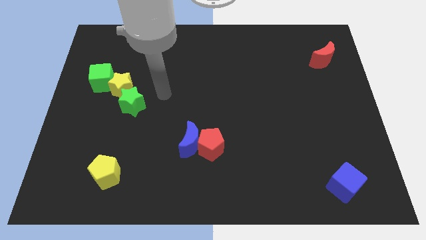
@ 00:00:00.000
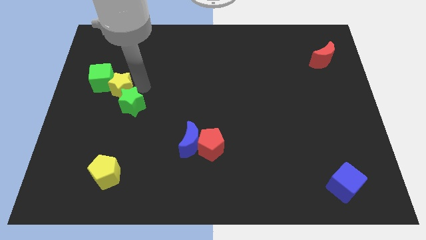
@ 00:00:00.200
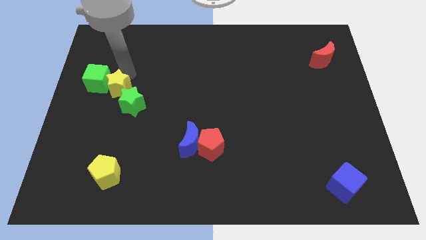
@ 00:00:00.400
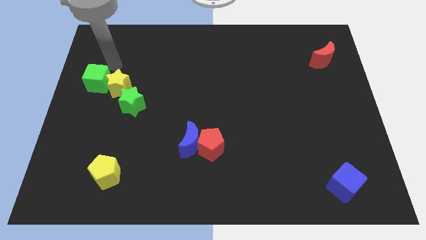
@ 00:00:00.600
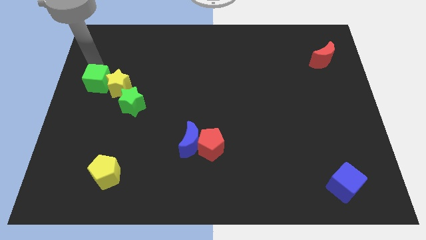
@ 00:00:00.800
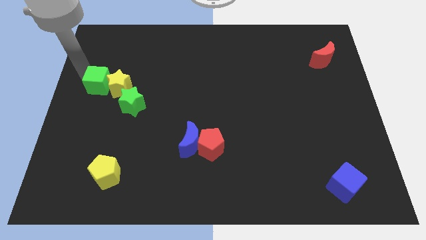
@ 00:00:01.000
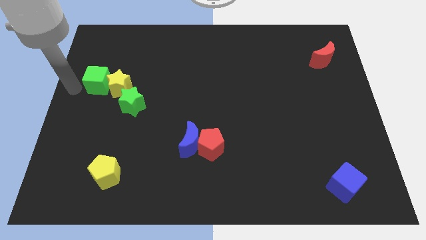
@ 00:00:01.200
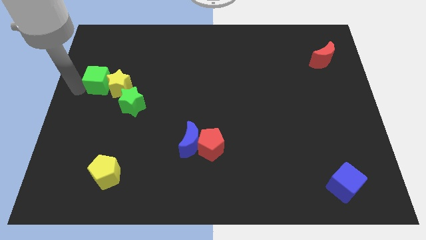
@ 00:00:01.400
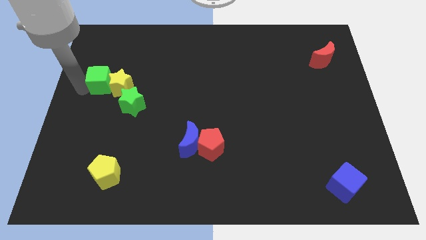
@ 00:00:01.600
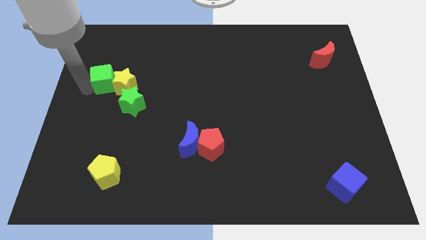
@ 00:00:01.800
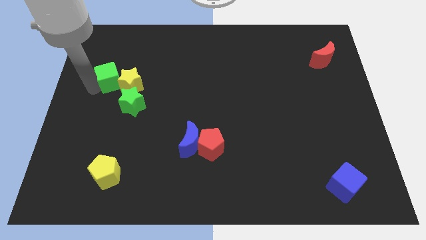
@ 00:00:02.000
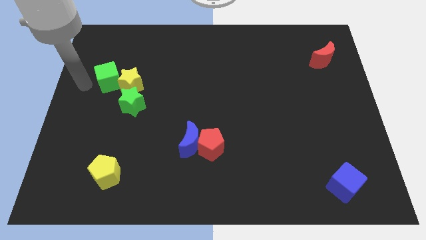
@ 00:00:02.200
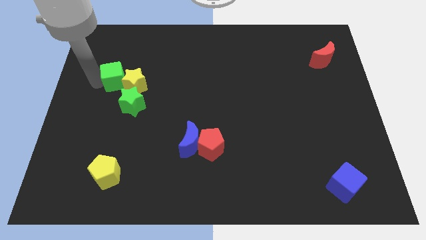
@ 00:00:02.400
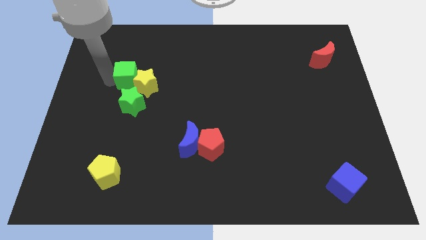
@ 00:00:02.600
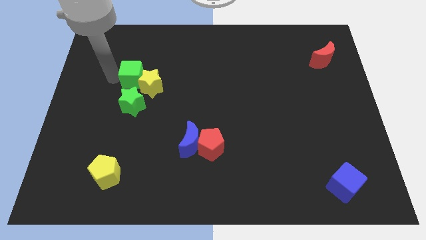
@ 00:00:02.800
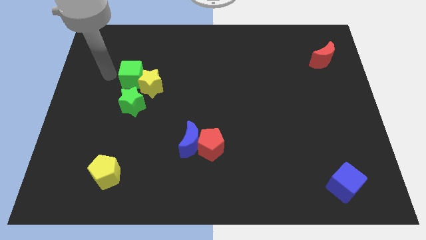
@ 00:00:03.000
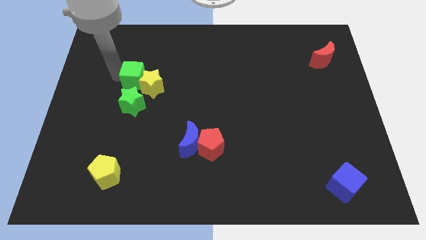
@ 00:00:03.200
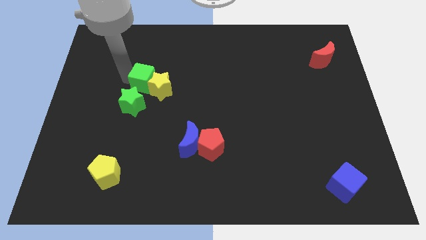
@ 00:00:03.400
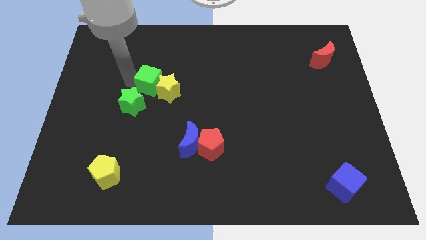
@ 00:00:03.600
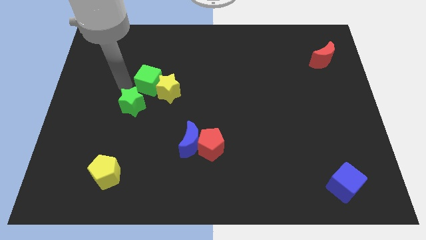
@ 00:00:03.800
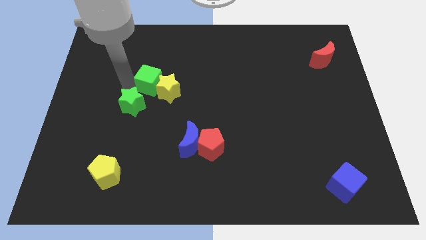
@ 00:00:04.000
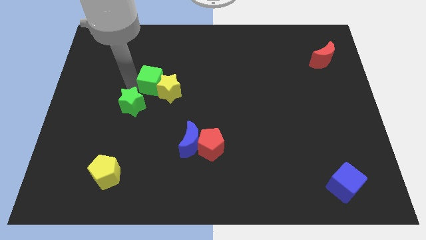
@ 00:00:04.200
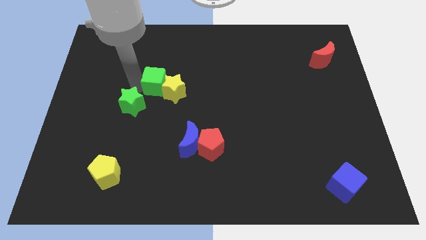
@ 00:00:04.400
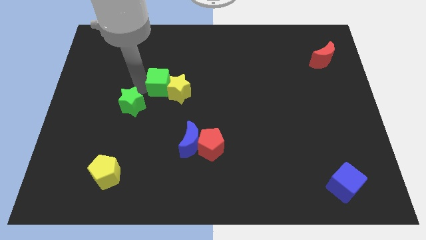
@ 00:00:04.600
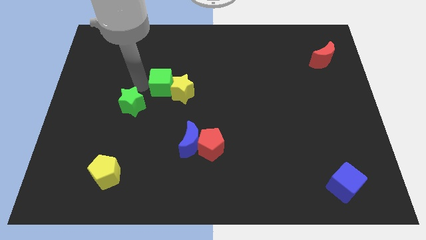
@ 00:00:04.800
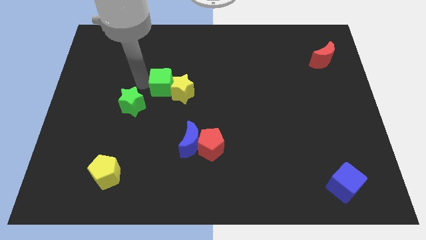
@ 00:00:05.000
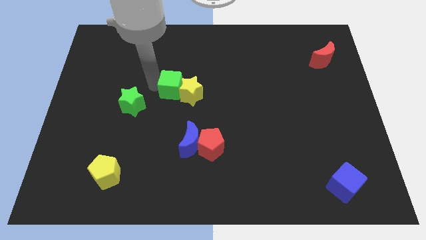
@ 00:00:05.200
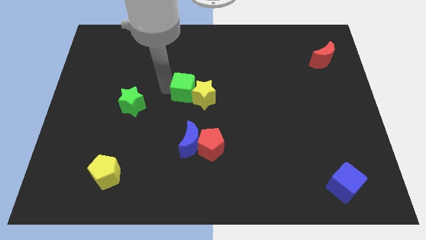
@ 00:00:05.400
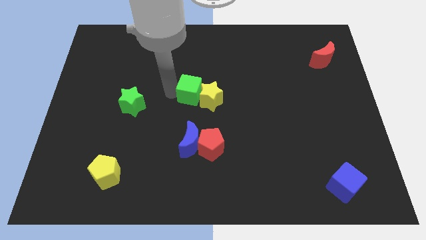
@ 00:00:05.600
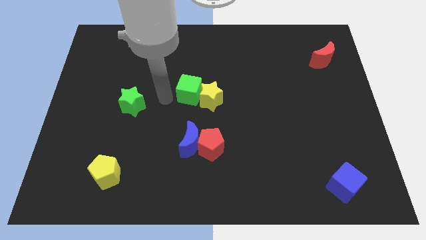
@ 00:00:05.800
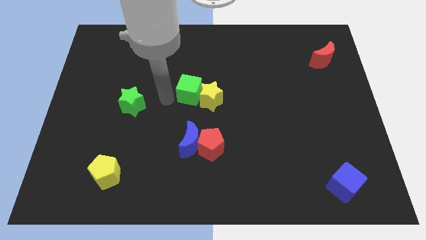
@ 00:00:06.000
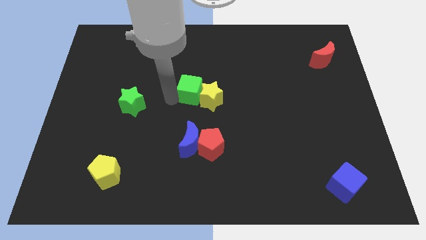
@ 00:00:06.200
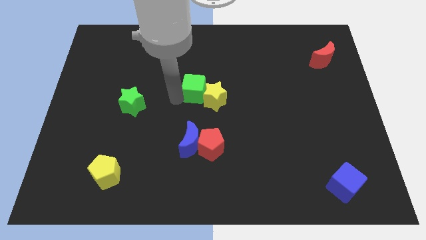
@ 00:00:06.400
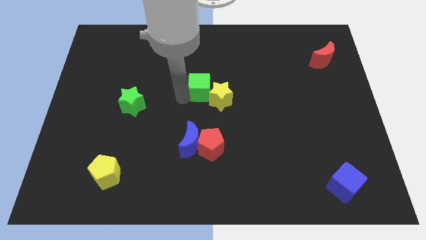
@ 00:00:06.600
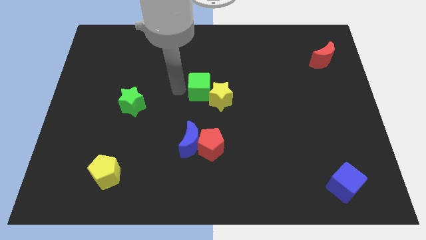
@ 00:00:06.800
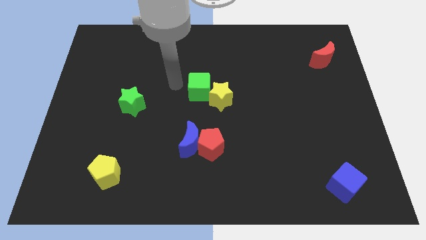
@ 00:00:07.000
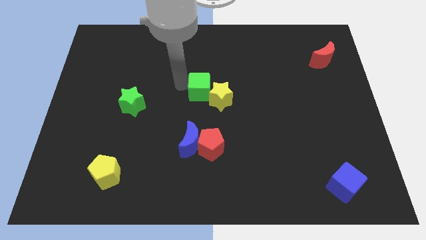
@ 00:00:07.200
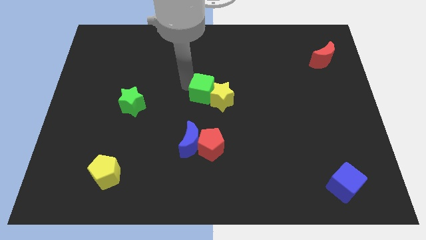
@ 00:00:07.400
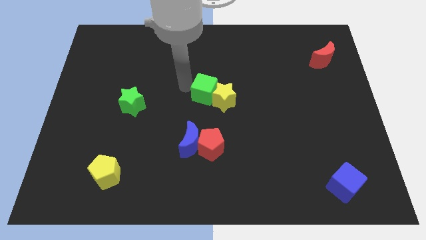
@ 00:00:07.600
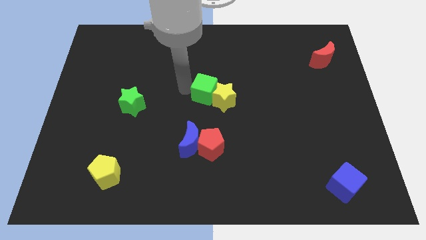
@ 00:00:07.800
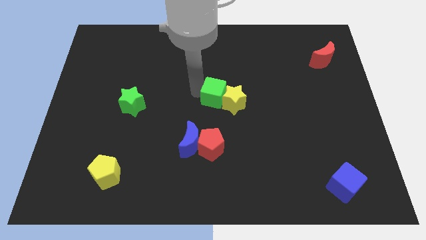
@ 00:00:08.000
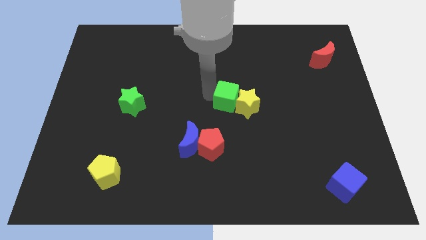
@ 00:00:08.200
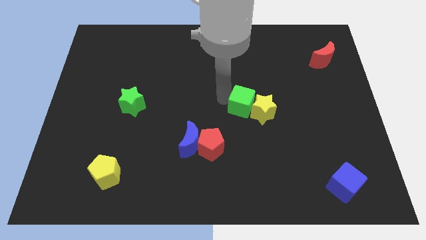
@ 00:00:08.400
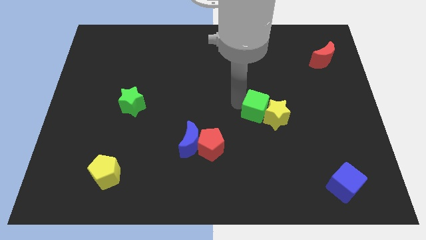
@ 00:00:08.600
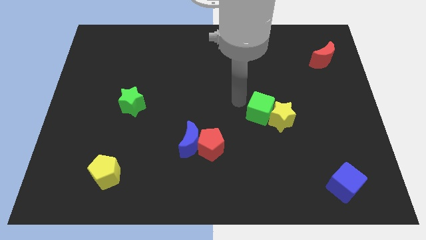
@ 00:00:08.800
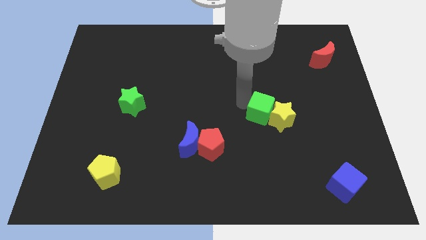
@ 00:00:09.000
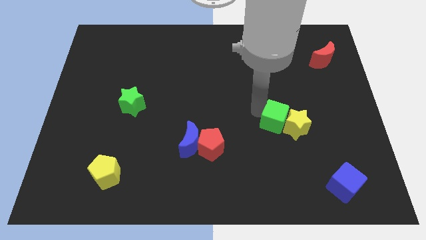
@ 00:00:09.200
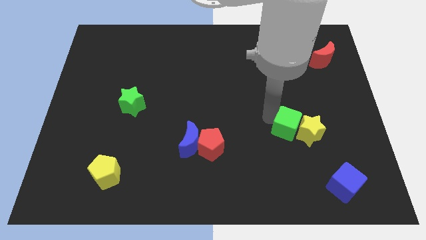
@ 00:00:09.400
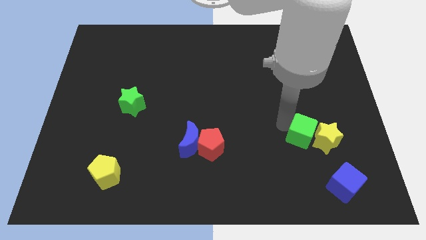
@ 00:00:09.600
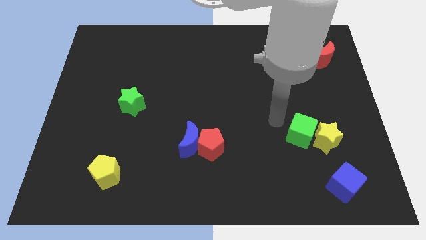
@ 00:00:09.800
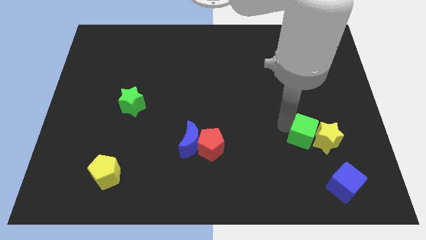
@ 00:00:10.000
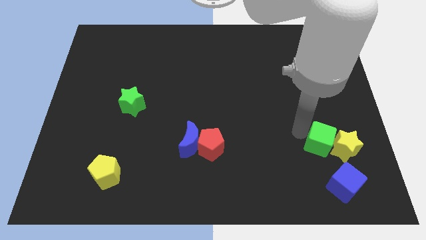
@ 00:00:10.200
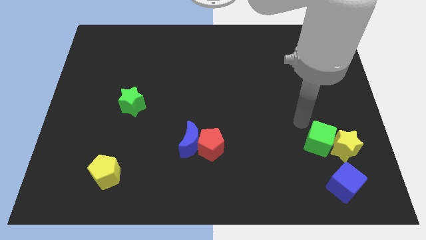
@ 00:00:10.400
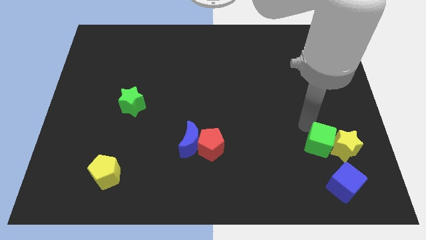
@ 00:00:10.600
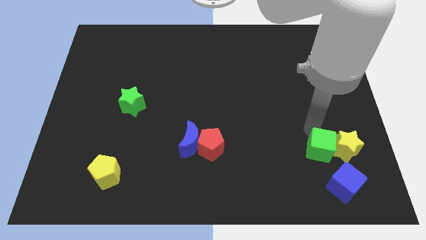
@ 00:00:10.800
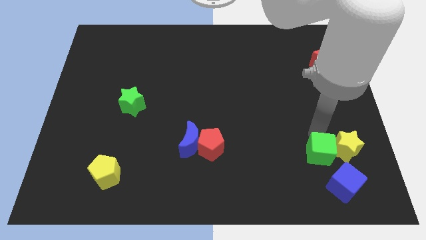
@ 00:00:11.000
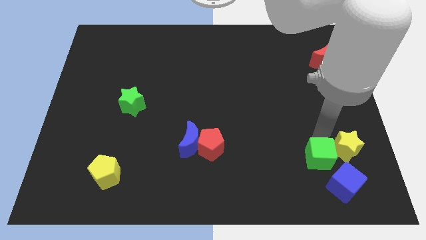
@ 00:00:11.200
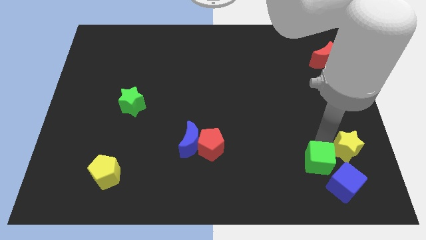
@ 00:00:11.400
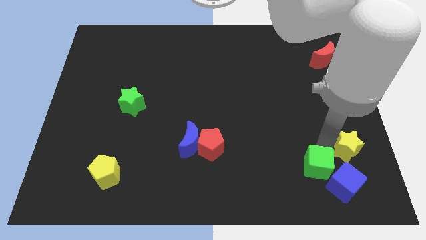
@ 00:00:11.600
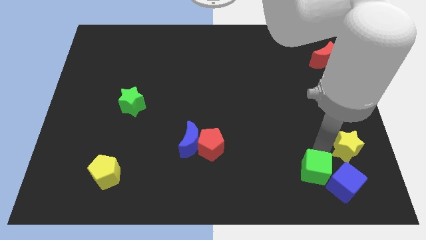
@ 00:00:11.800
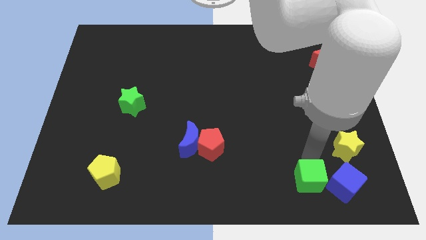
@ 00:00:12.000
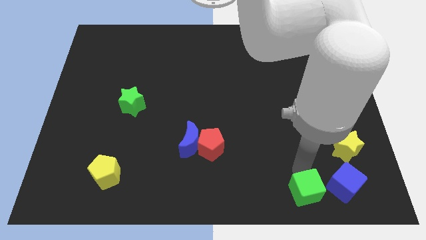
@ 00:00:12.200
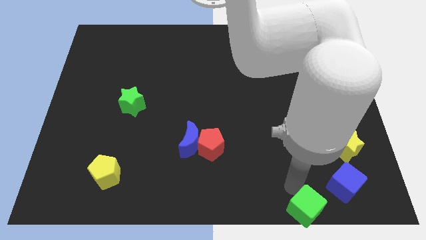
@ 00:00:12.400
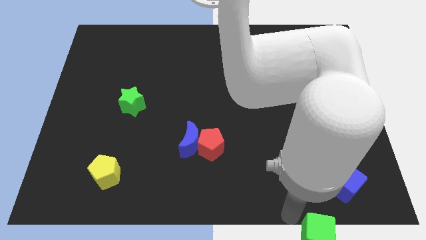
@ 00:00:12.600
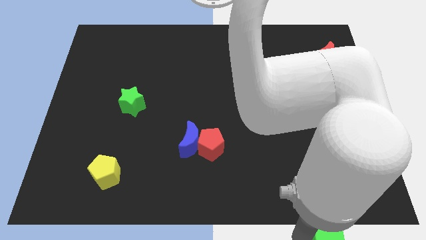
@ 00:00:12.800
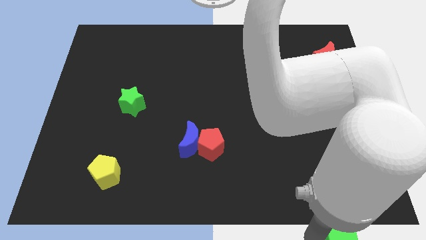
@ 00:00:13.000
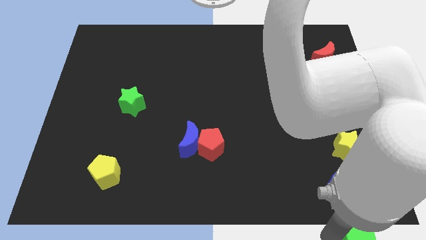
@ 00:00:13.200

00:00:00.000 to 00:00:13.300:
move the green cube to the bottom right
